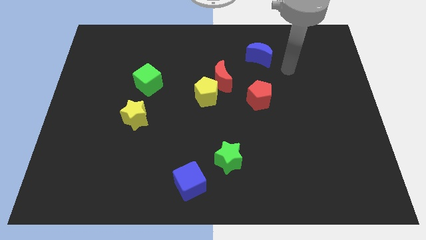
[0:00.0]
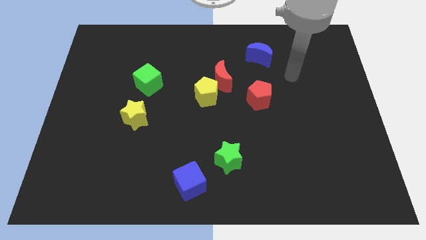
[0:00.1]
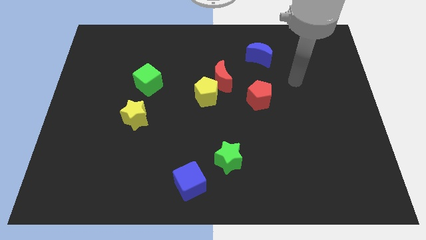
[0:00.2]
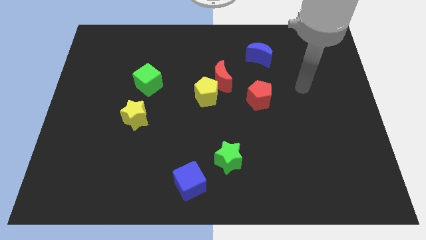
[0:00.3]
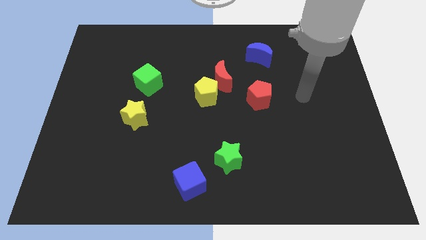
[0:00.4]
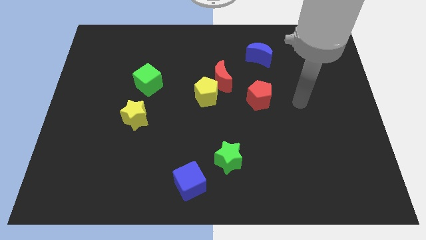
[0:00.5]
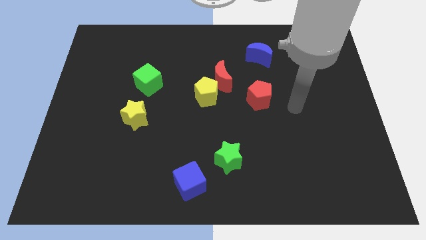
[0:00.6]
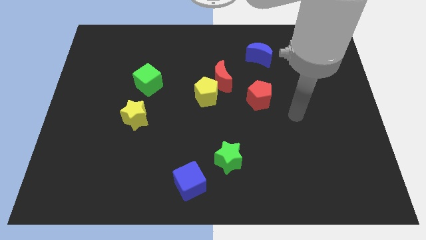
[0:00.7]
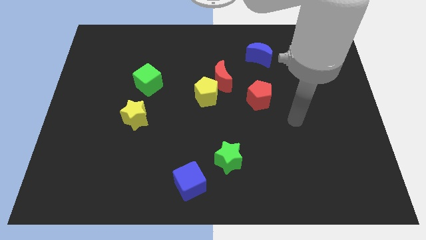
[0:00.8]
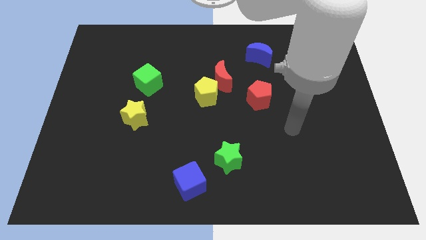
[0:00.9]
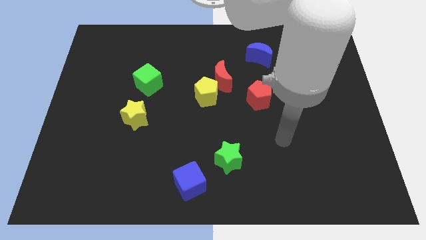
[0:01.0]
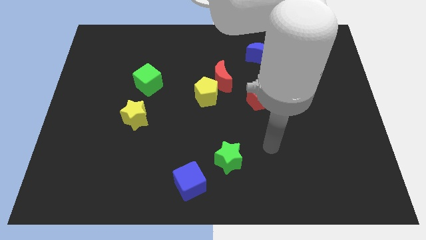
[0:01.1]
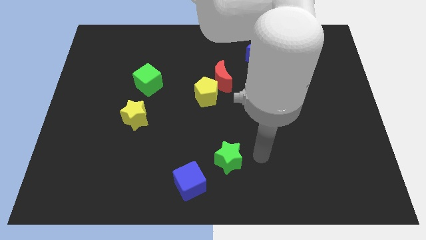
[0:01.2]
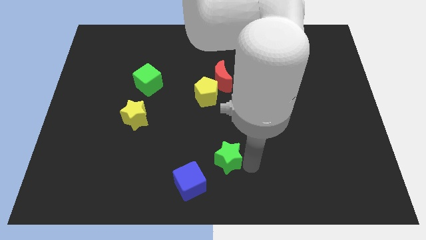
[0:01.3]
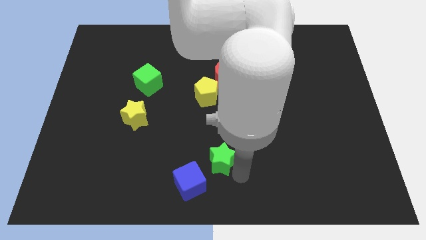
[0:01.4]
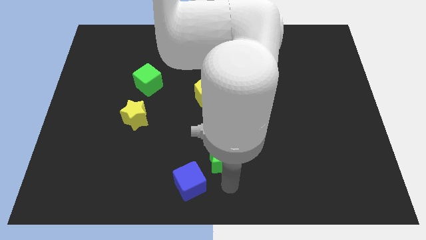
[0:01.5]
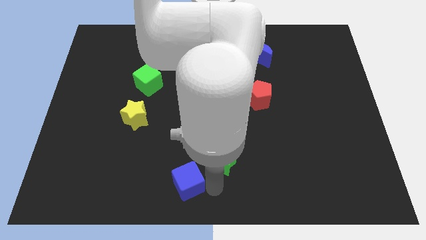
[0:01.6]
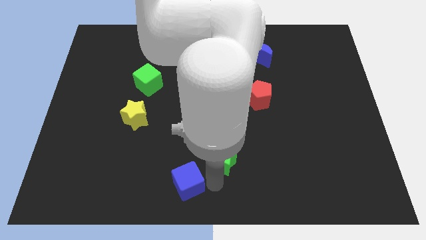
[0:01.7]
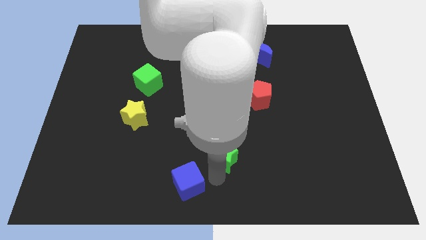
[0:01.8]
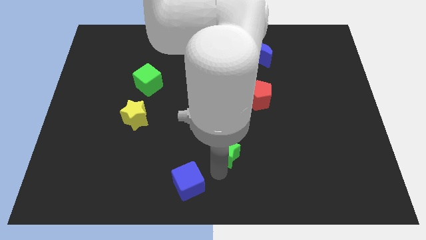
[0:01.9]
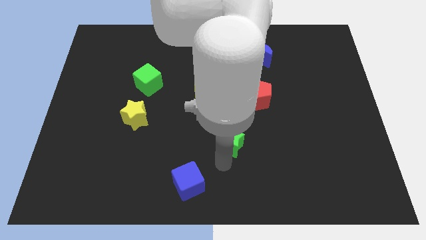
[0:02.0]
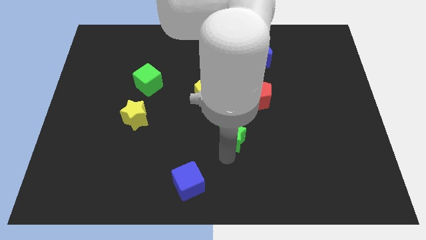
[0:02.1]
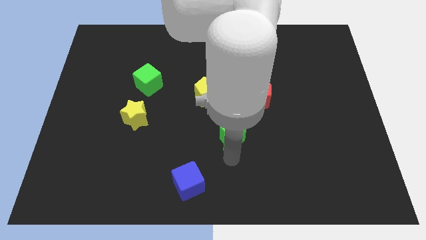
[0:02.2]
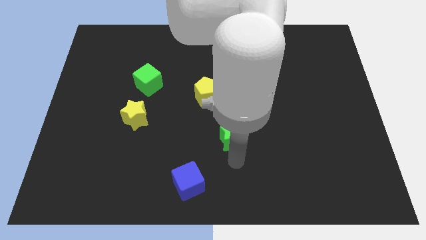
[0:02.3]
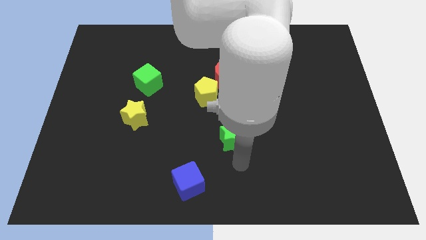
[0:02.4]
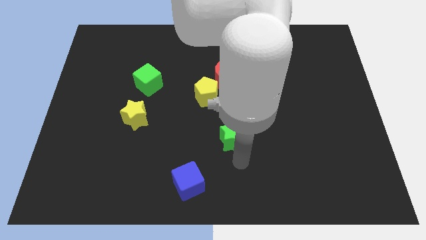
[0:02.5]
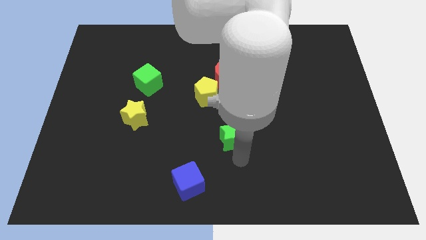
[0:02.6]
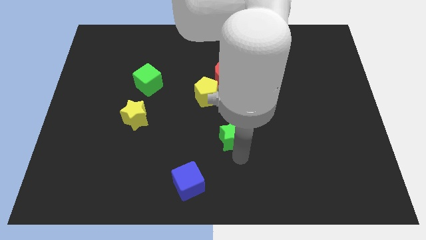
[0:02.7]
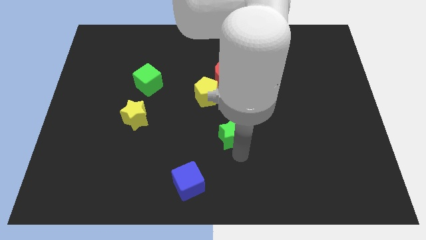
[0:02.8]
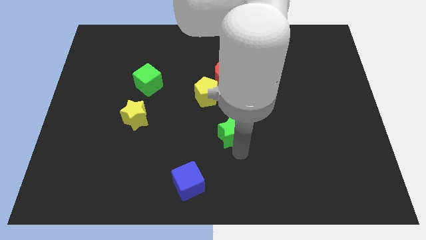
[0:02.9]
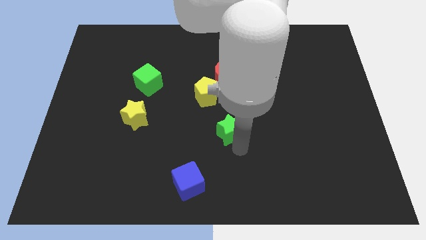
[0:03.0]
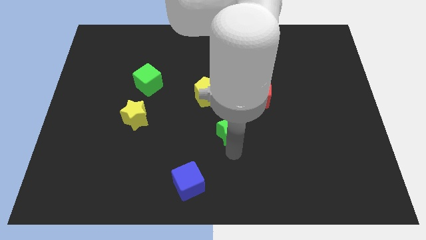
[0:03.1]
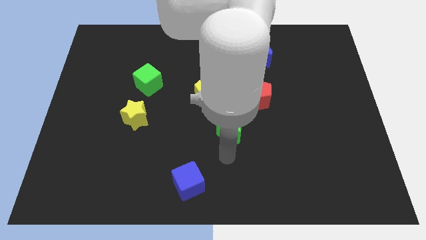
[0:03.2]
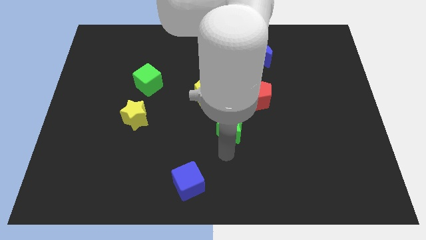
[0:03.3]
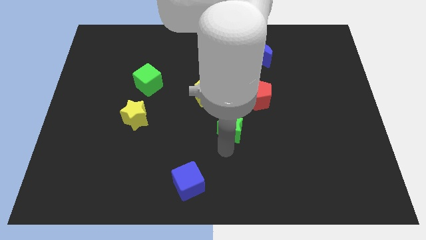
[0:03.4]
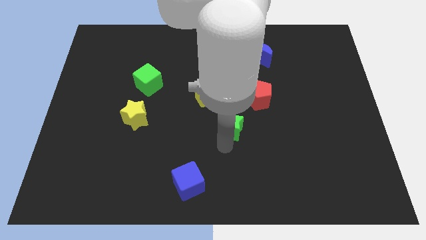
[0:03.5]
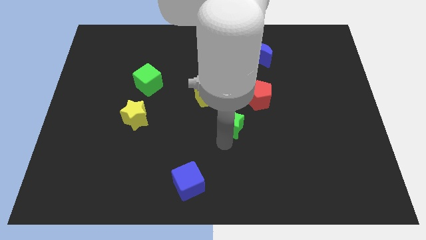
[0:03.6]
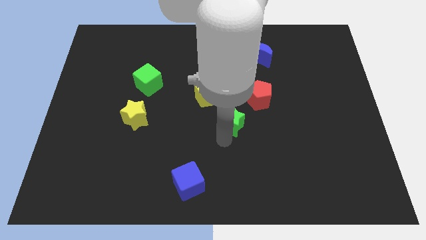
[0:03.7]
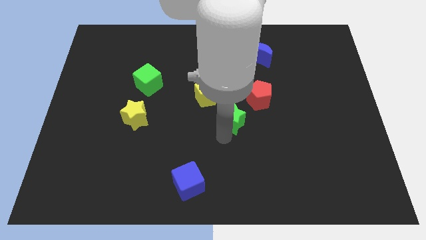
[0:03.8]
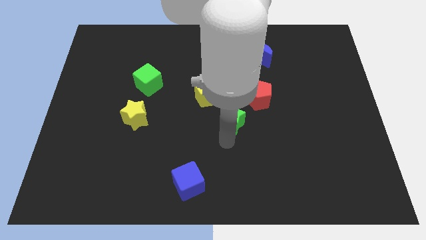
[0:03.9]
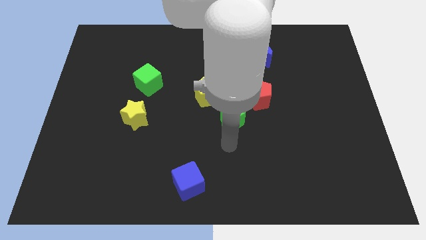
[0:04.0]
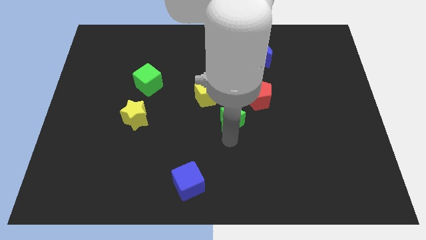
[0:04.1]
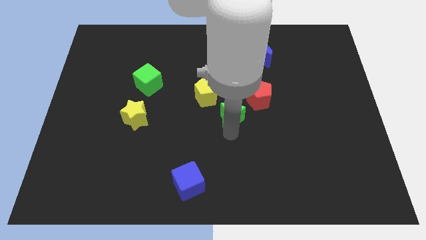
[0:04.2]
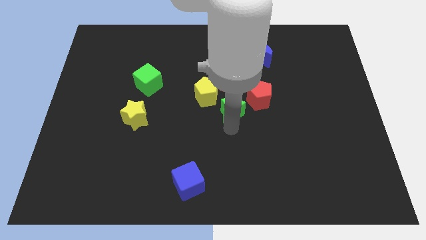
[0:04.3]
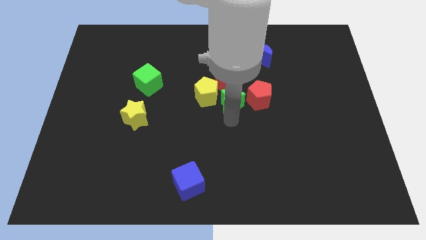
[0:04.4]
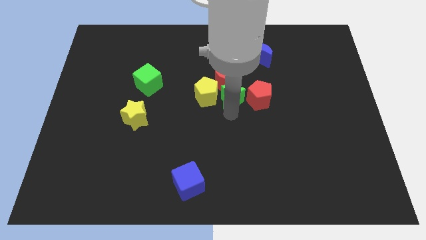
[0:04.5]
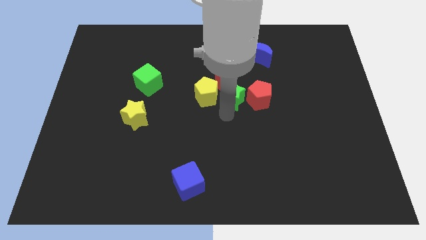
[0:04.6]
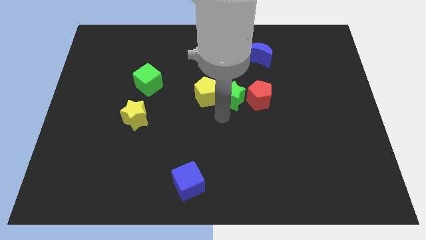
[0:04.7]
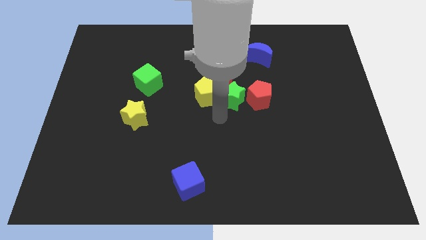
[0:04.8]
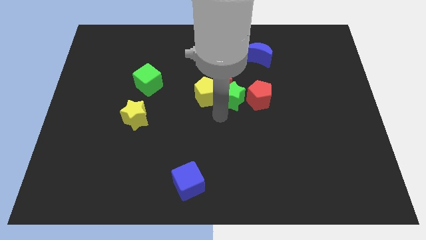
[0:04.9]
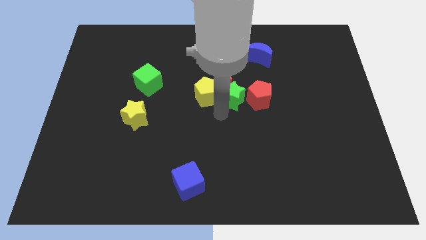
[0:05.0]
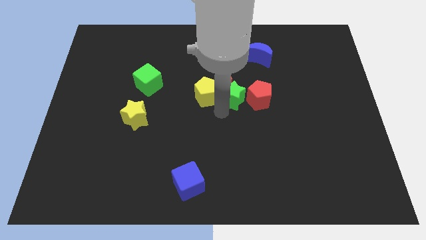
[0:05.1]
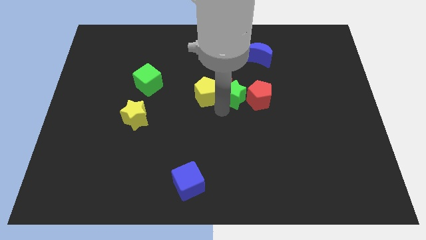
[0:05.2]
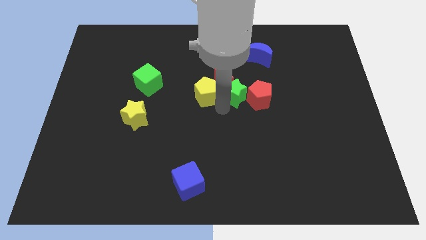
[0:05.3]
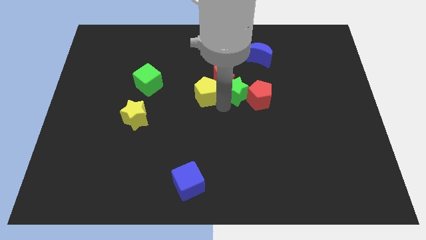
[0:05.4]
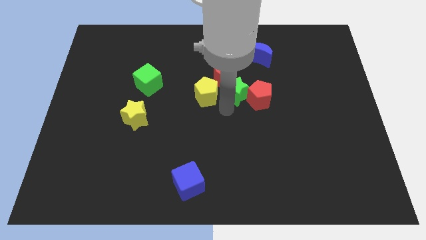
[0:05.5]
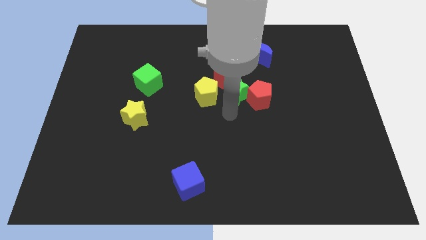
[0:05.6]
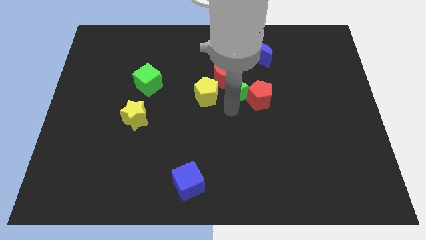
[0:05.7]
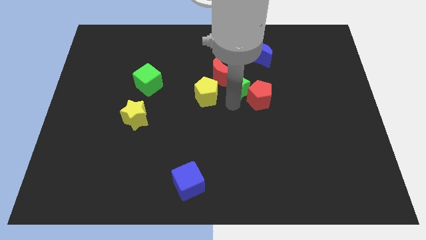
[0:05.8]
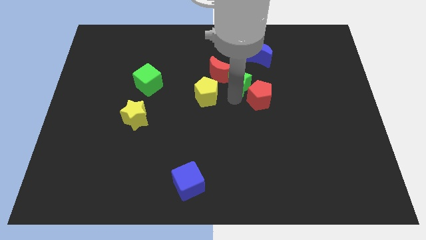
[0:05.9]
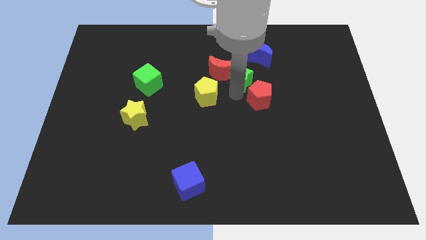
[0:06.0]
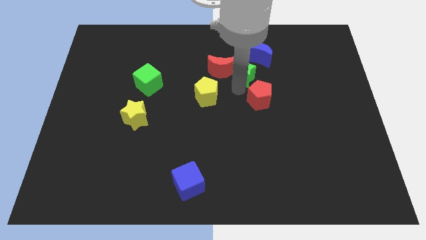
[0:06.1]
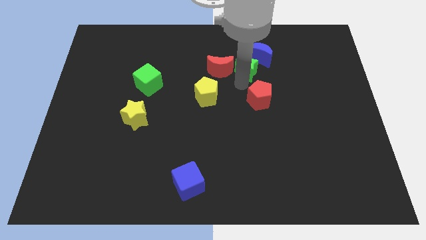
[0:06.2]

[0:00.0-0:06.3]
slide the green star towards the blue moon

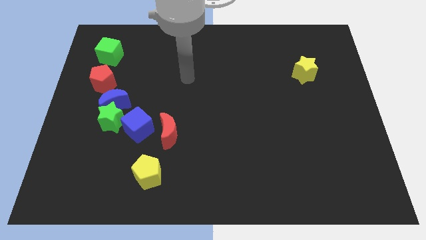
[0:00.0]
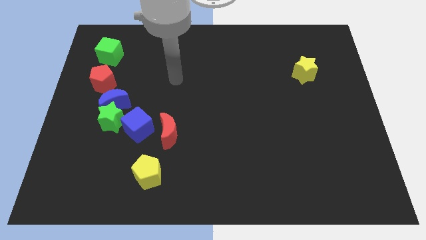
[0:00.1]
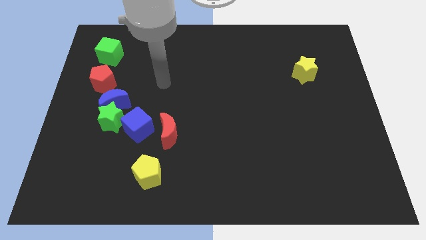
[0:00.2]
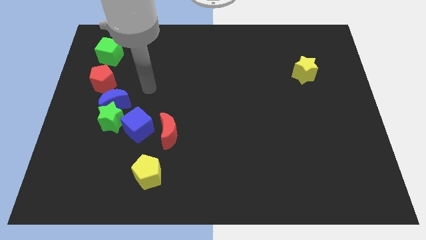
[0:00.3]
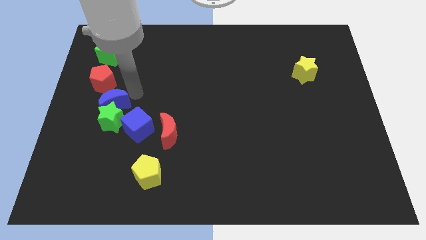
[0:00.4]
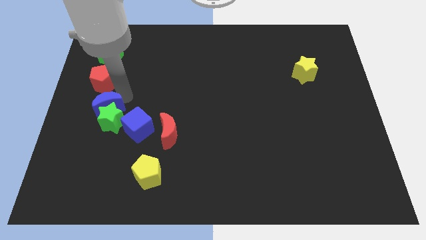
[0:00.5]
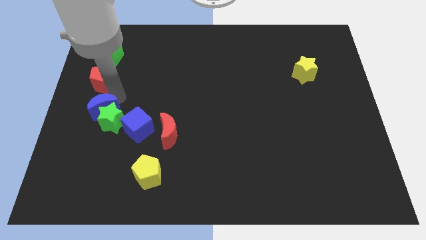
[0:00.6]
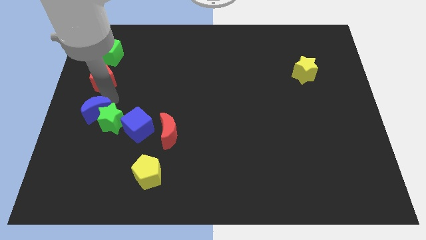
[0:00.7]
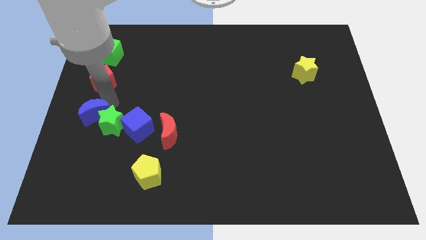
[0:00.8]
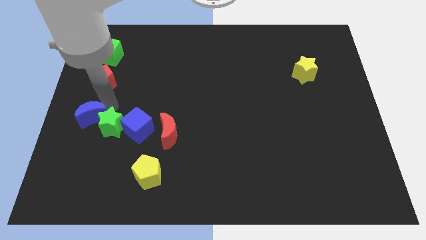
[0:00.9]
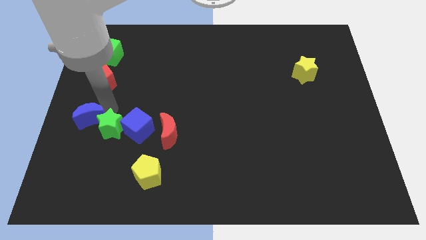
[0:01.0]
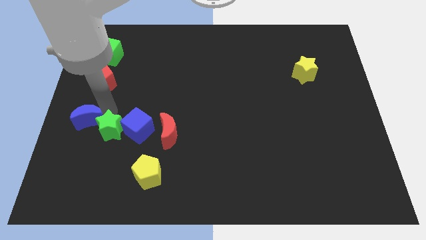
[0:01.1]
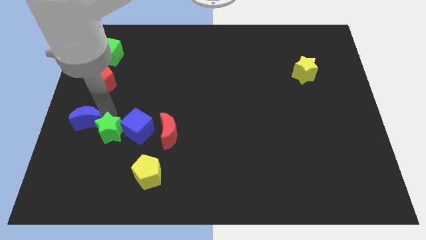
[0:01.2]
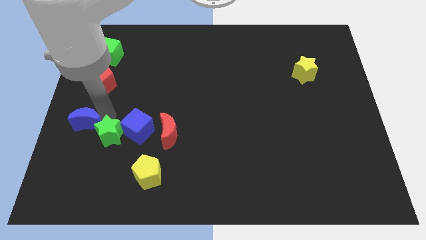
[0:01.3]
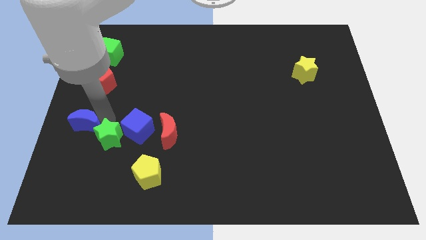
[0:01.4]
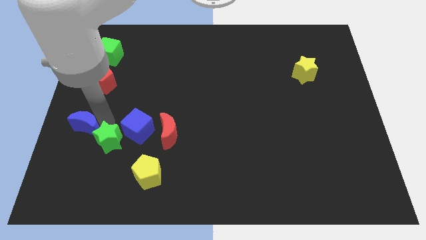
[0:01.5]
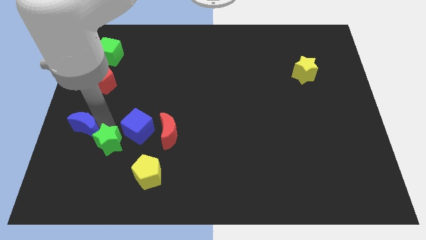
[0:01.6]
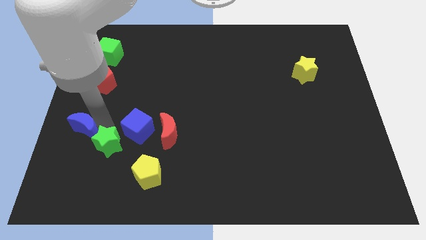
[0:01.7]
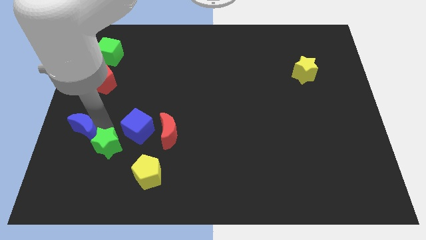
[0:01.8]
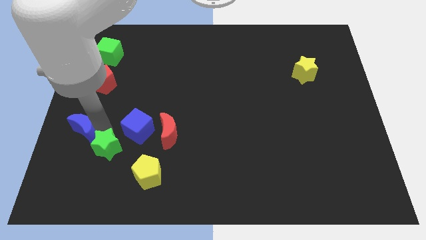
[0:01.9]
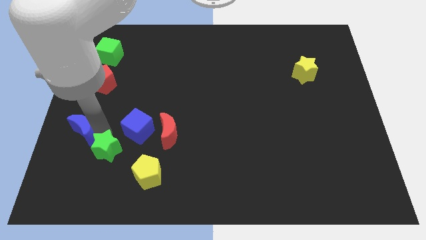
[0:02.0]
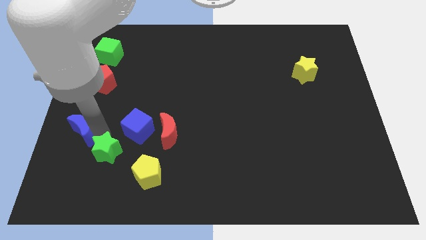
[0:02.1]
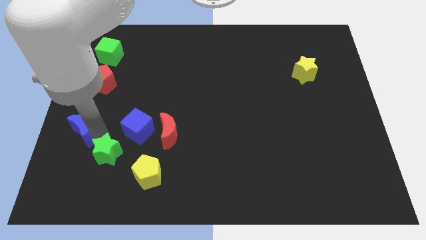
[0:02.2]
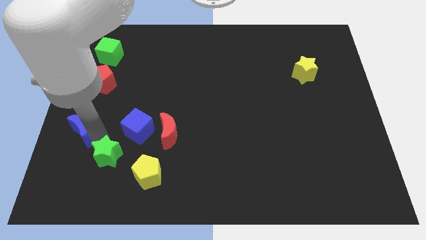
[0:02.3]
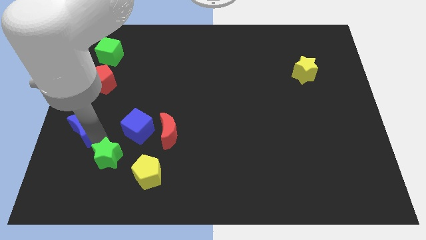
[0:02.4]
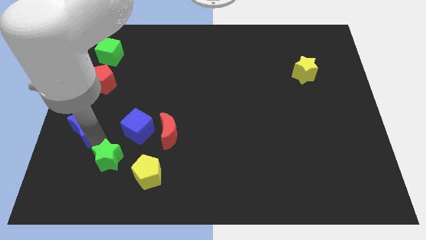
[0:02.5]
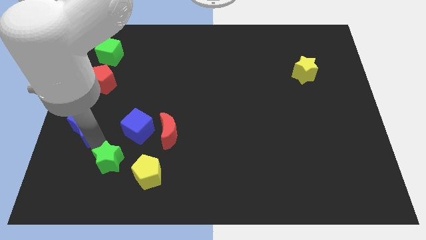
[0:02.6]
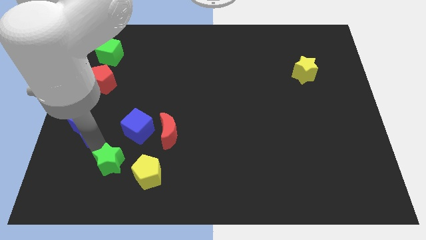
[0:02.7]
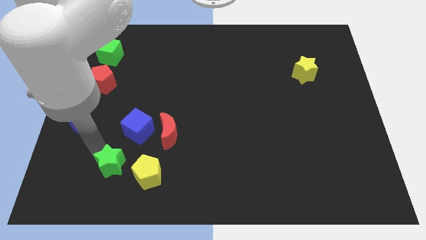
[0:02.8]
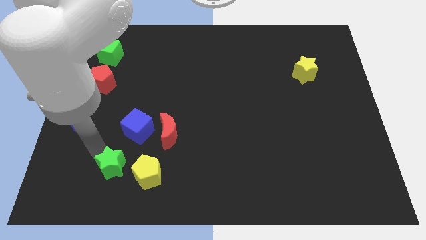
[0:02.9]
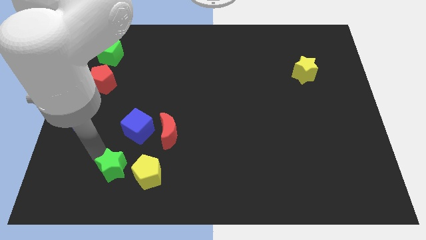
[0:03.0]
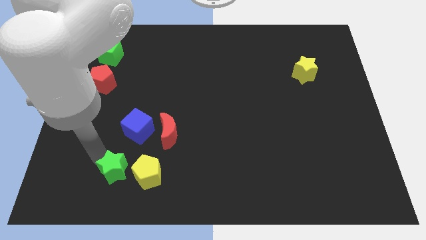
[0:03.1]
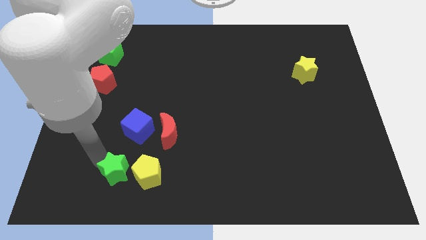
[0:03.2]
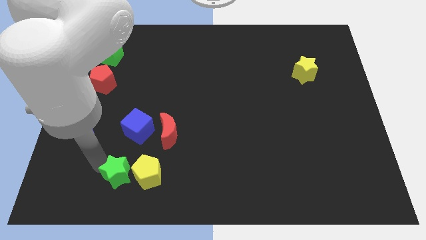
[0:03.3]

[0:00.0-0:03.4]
push the green star close to the yellow pentagon
